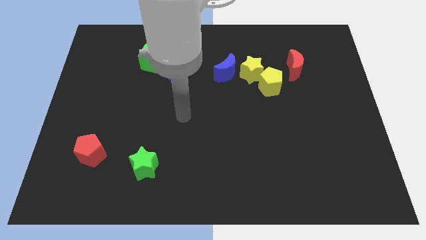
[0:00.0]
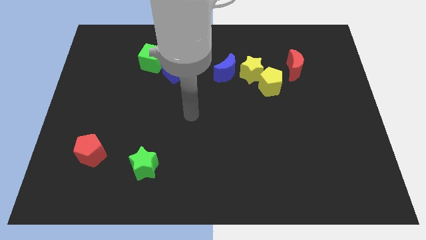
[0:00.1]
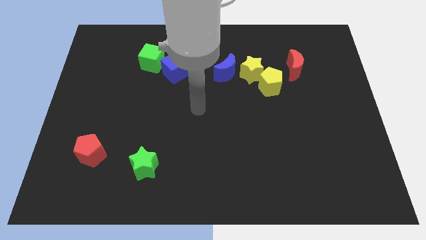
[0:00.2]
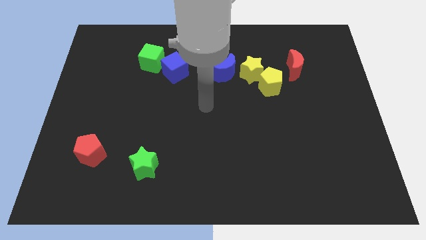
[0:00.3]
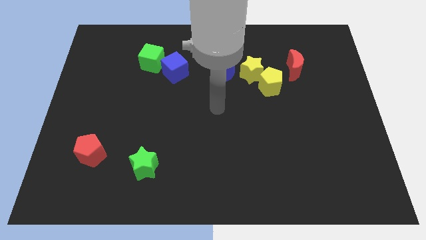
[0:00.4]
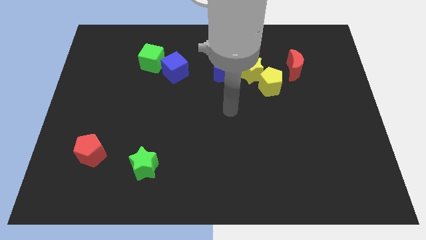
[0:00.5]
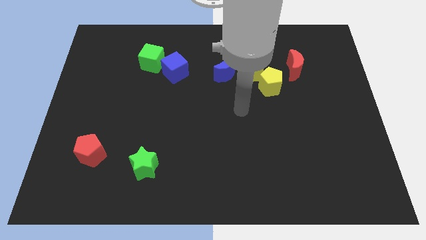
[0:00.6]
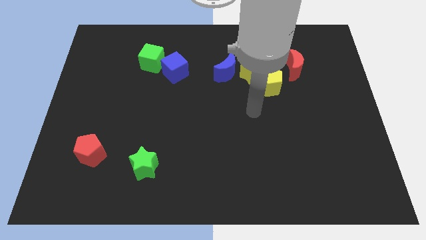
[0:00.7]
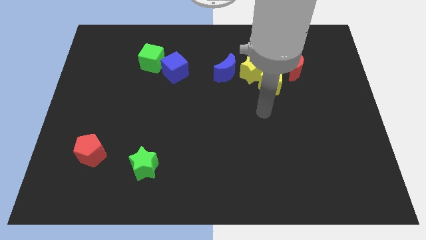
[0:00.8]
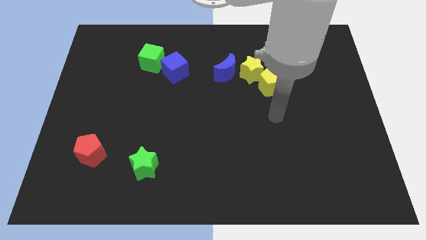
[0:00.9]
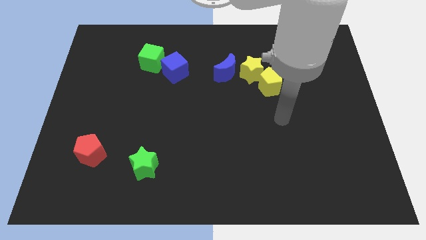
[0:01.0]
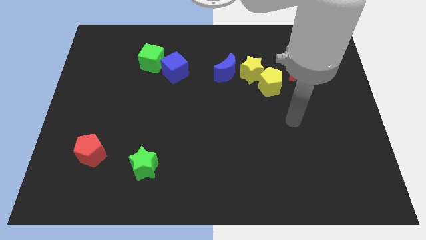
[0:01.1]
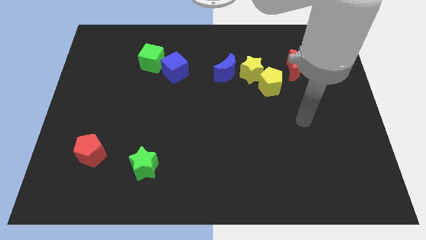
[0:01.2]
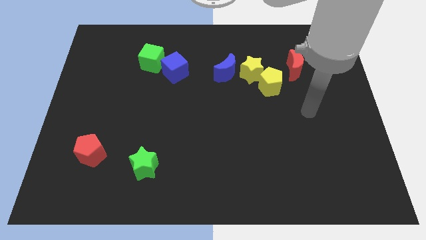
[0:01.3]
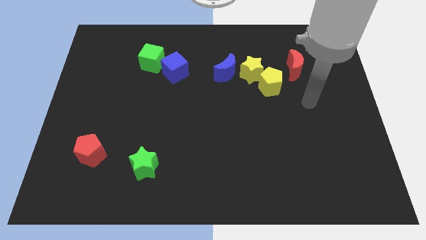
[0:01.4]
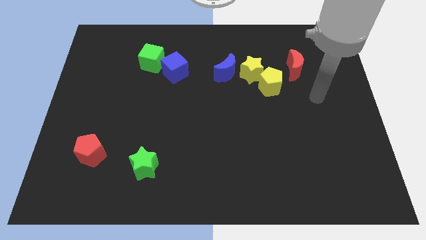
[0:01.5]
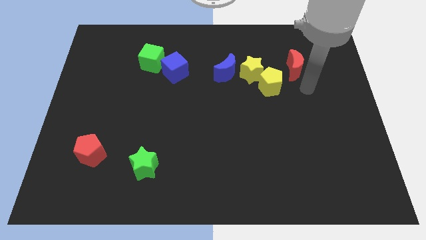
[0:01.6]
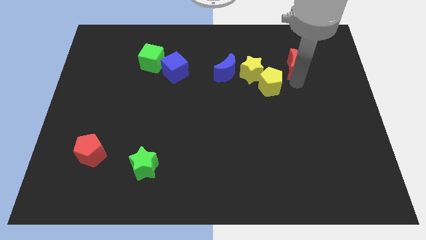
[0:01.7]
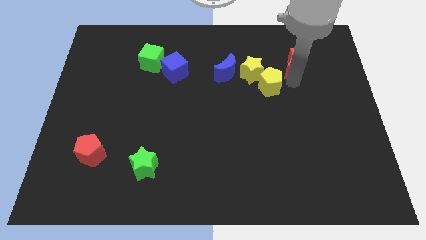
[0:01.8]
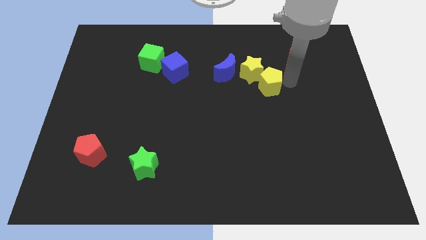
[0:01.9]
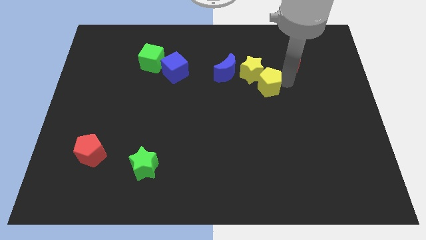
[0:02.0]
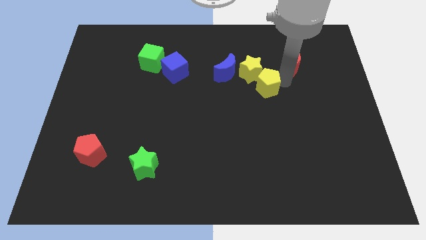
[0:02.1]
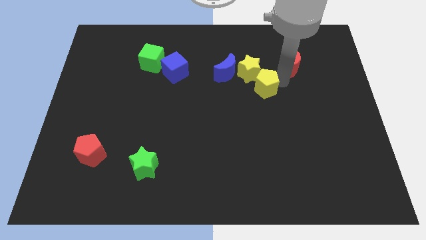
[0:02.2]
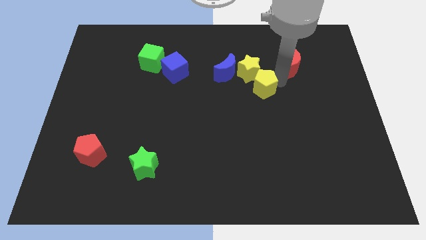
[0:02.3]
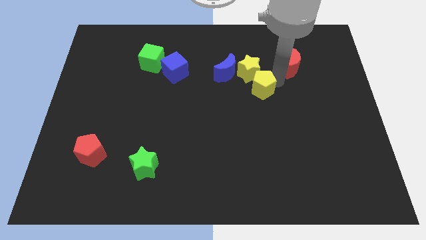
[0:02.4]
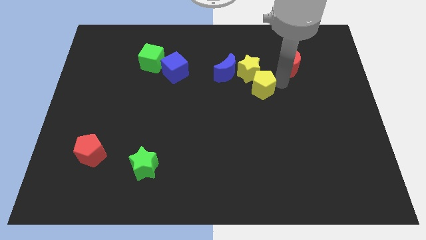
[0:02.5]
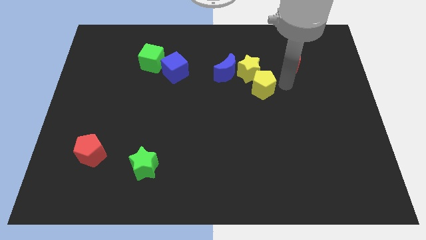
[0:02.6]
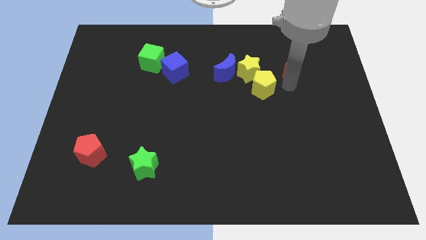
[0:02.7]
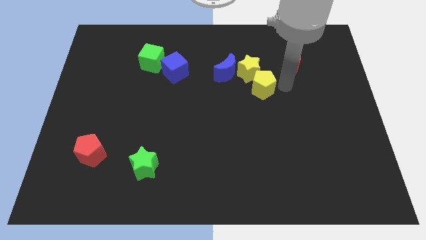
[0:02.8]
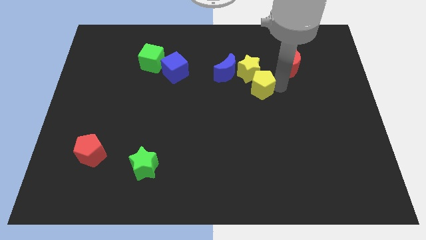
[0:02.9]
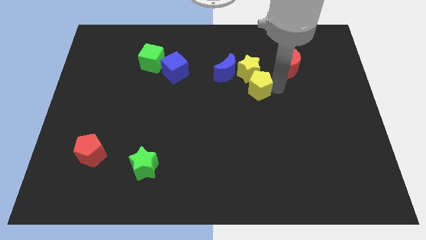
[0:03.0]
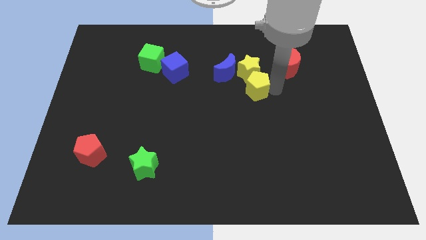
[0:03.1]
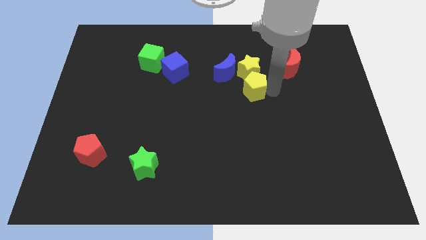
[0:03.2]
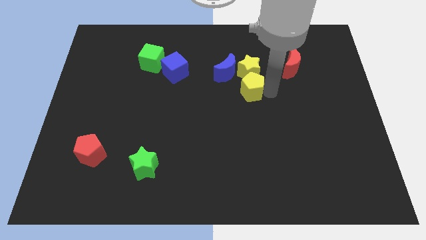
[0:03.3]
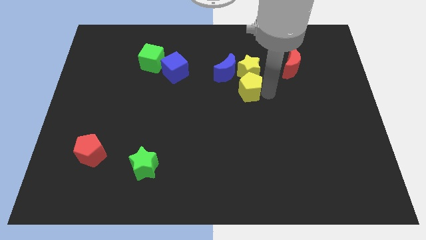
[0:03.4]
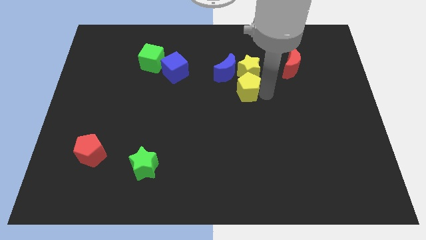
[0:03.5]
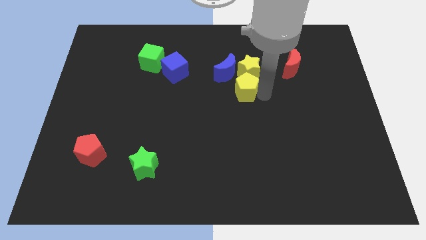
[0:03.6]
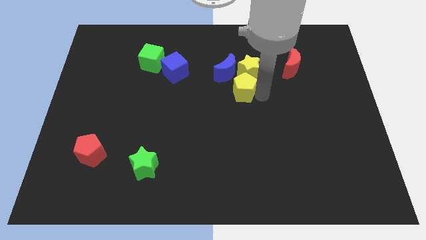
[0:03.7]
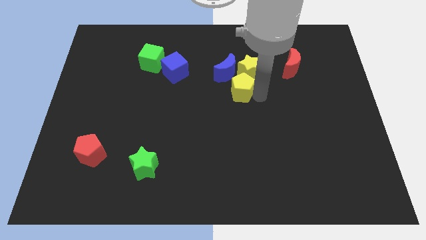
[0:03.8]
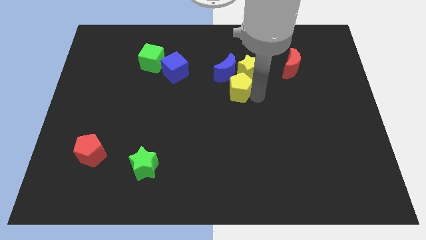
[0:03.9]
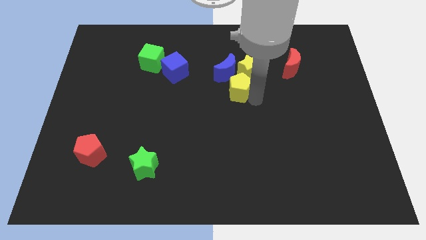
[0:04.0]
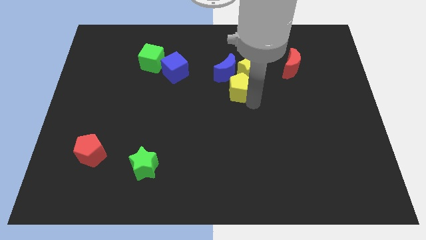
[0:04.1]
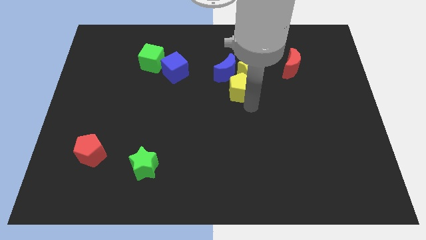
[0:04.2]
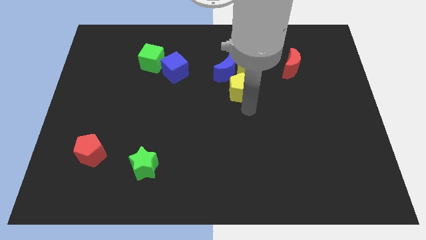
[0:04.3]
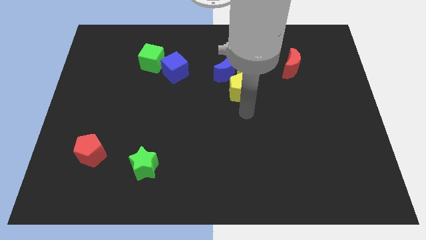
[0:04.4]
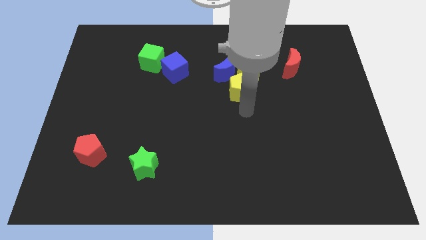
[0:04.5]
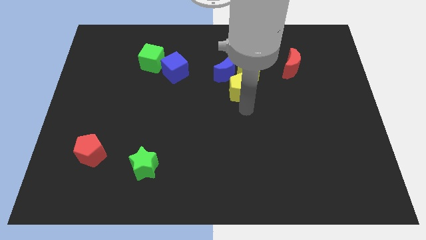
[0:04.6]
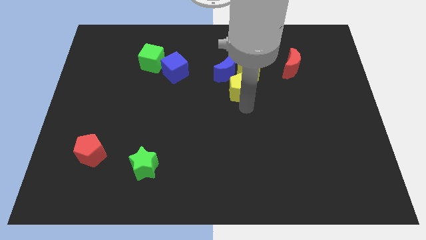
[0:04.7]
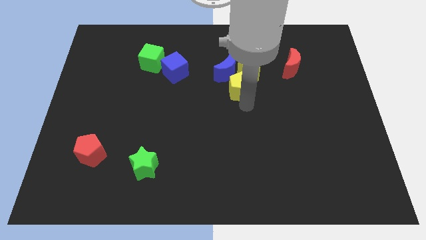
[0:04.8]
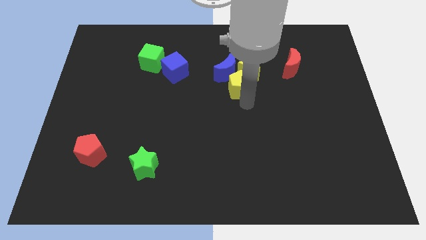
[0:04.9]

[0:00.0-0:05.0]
move the yellow pentagon to the blue moon

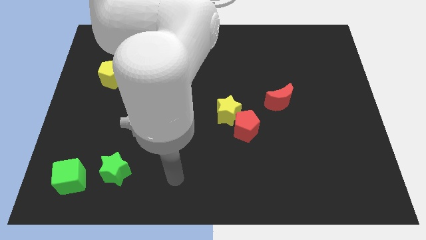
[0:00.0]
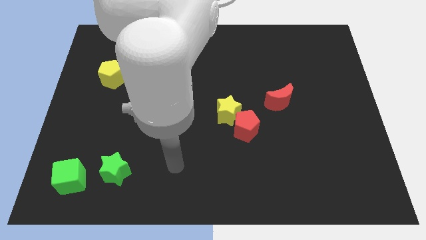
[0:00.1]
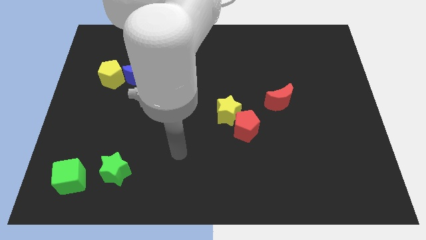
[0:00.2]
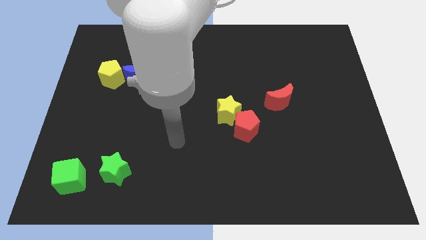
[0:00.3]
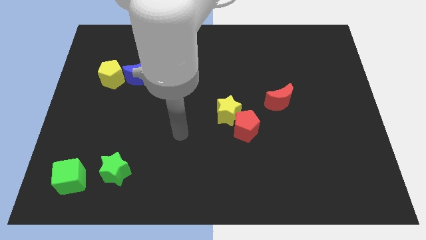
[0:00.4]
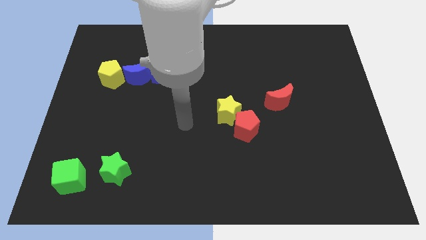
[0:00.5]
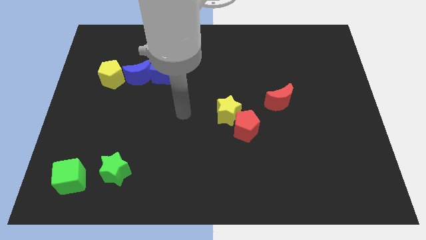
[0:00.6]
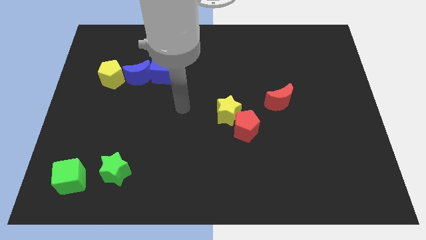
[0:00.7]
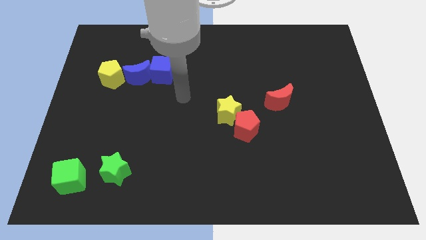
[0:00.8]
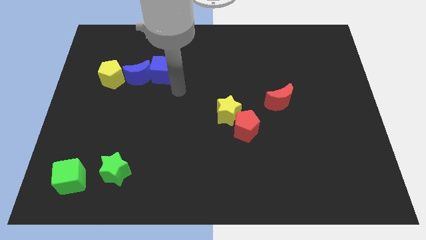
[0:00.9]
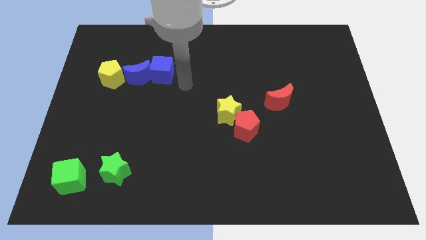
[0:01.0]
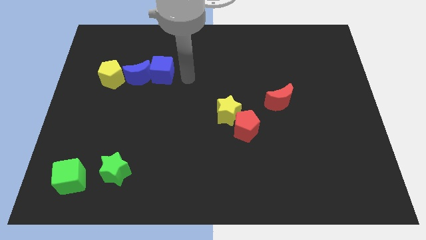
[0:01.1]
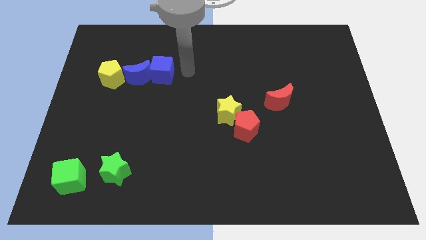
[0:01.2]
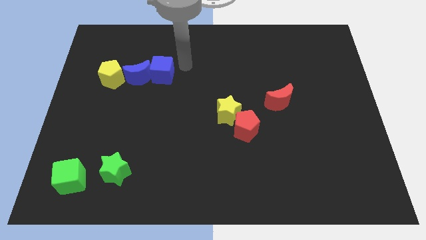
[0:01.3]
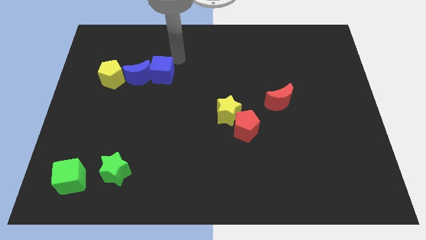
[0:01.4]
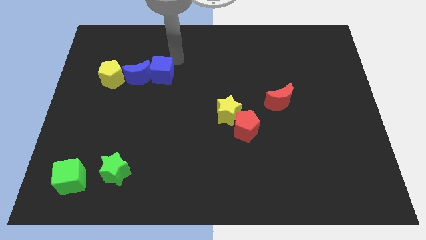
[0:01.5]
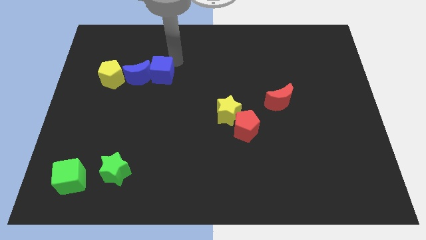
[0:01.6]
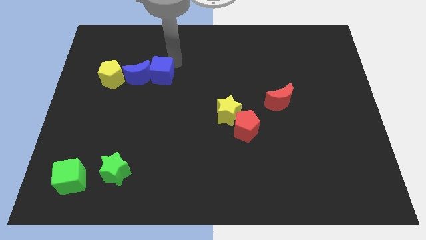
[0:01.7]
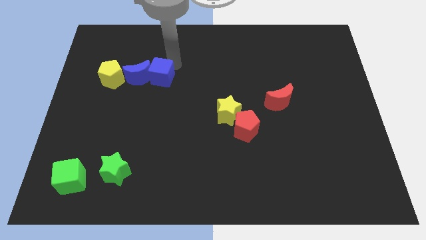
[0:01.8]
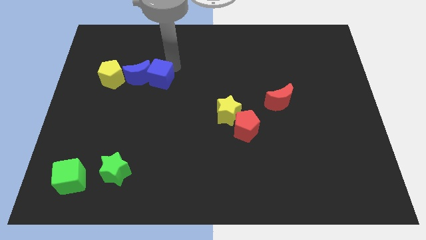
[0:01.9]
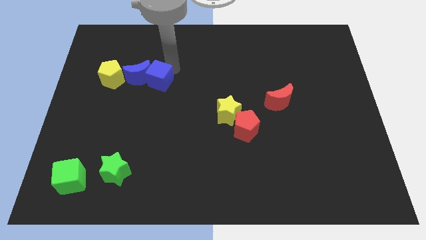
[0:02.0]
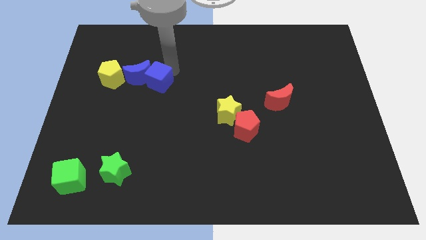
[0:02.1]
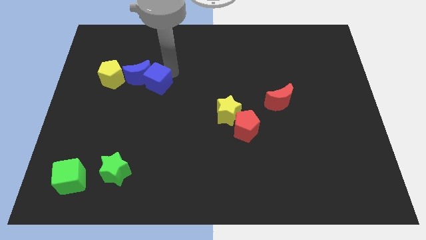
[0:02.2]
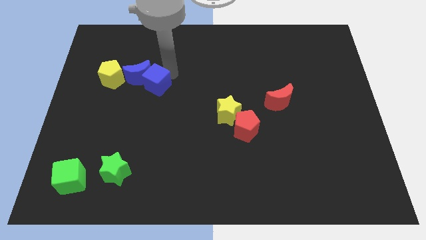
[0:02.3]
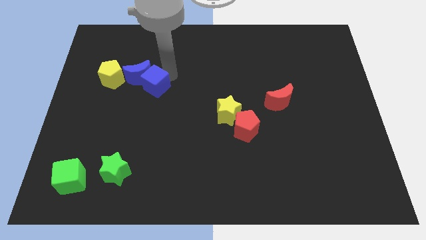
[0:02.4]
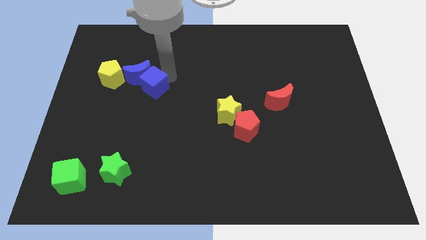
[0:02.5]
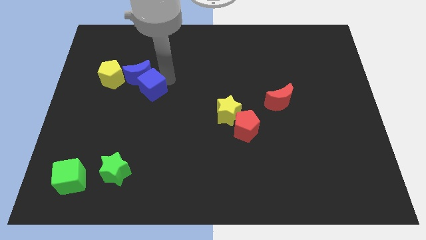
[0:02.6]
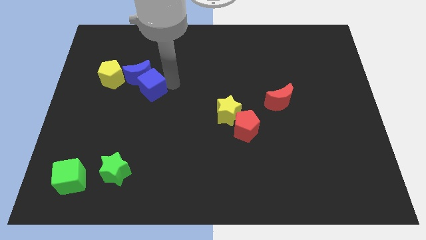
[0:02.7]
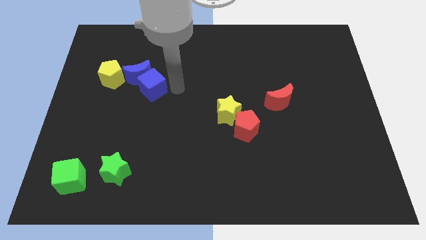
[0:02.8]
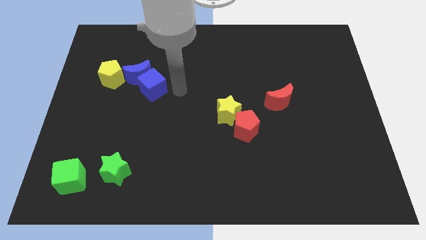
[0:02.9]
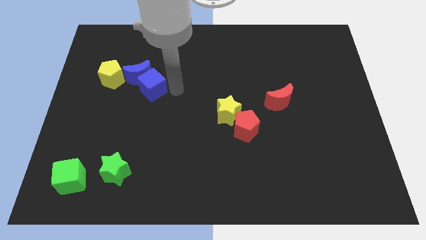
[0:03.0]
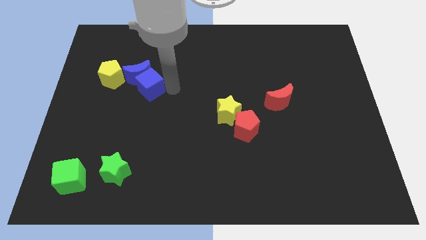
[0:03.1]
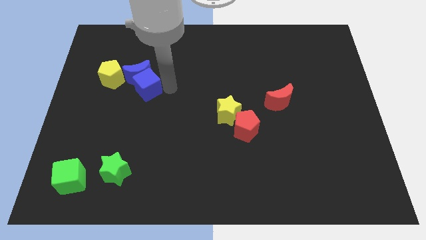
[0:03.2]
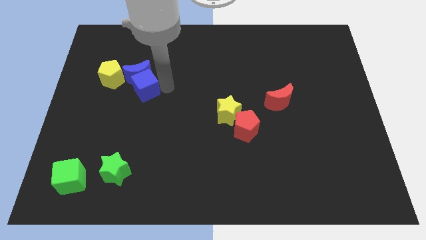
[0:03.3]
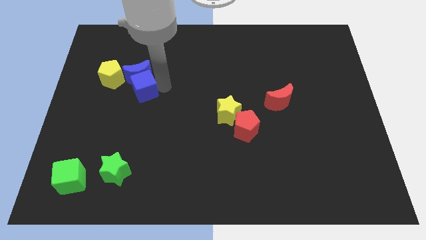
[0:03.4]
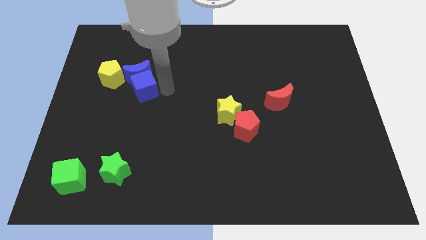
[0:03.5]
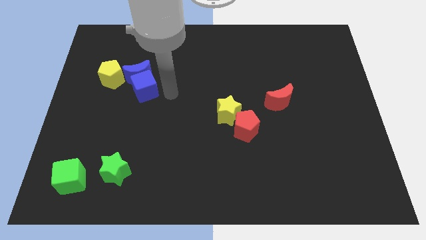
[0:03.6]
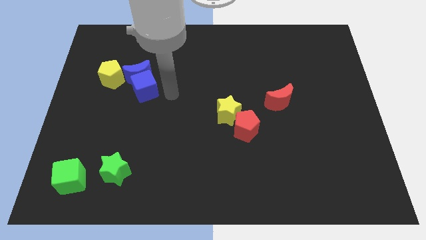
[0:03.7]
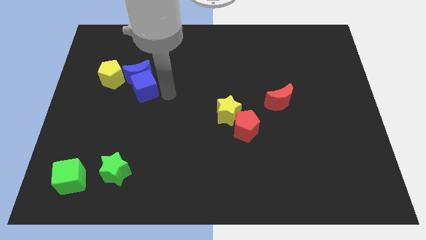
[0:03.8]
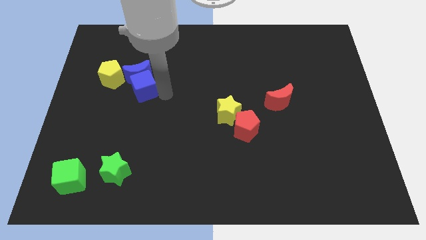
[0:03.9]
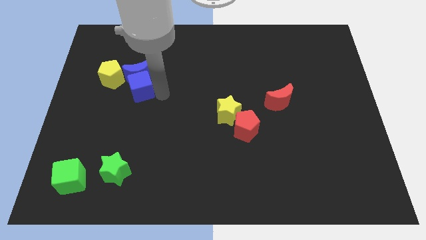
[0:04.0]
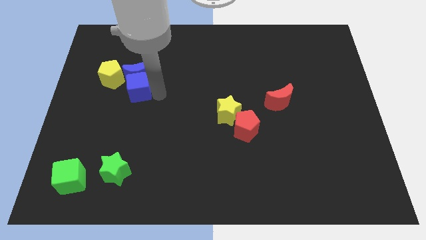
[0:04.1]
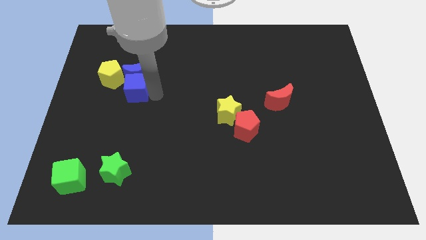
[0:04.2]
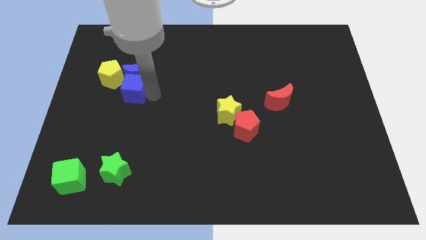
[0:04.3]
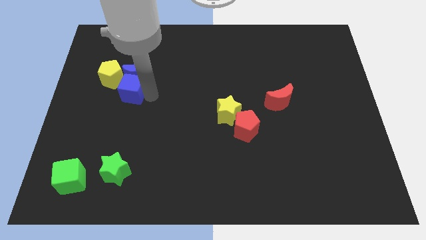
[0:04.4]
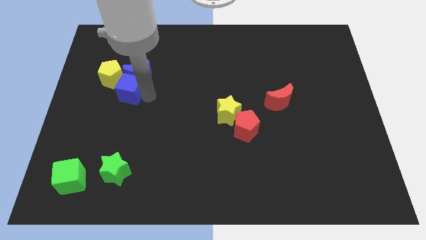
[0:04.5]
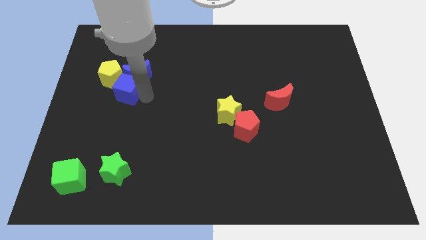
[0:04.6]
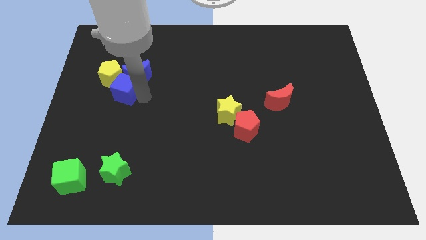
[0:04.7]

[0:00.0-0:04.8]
move the blue cube close to the yellow pentagon
